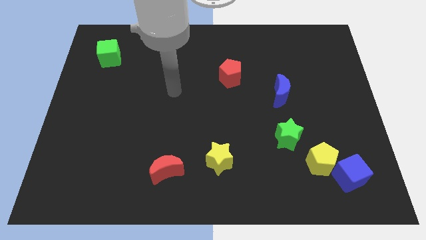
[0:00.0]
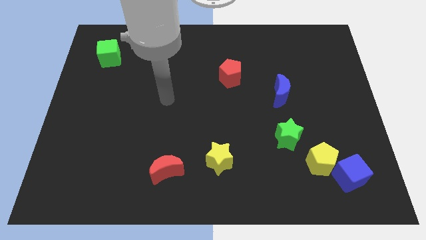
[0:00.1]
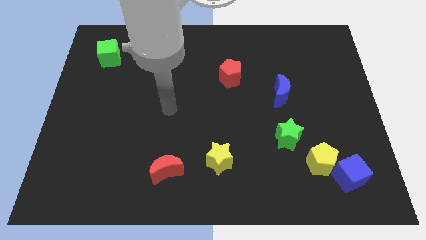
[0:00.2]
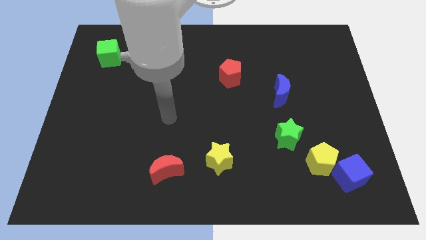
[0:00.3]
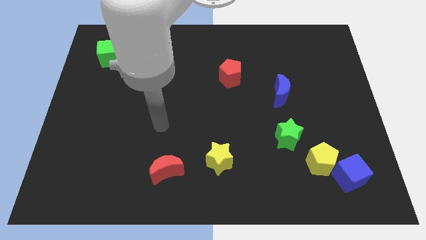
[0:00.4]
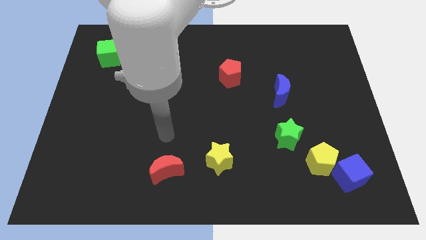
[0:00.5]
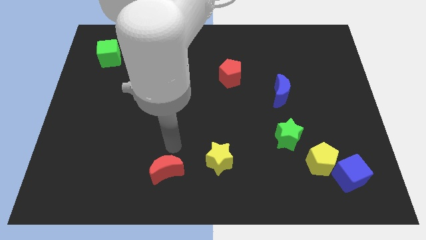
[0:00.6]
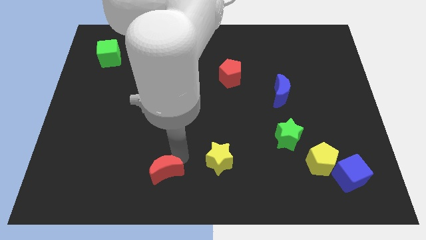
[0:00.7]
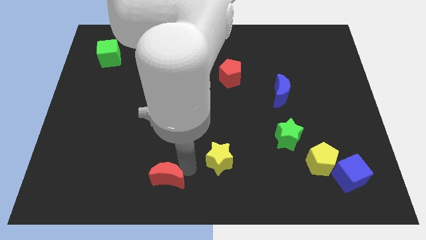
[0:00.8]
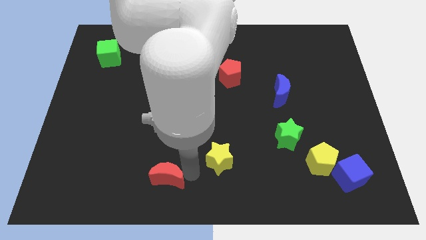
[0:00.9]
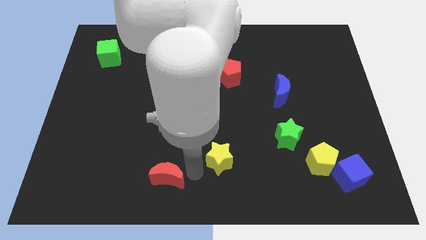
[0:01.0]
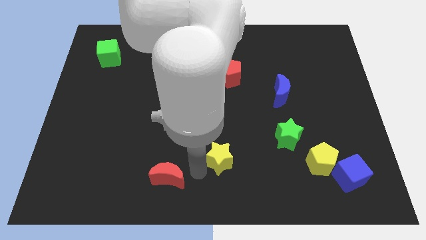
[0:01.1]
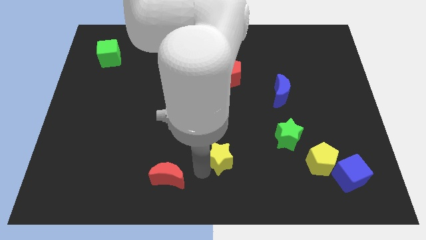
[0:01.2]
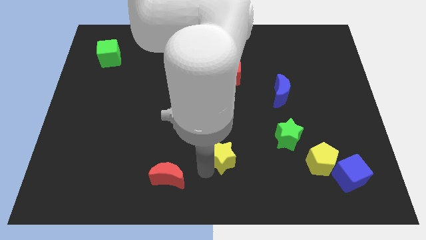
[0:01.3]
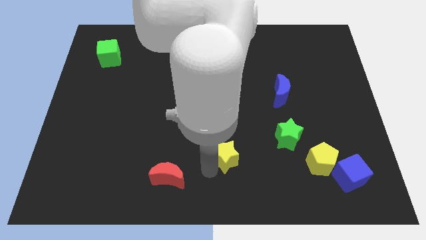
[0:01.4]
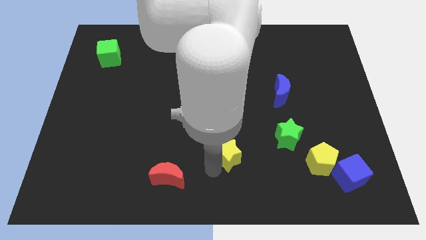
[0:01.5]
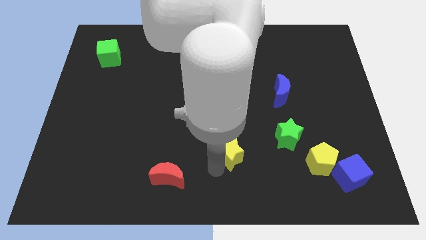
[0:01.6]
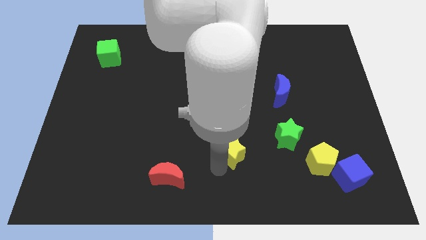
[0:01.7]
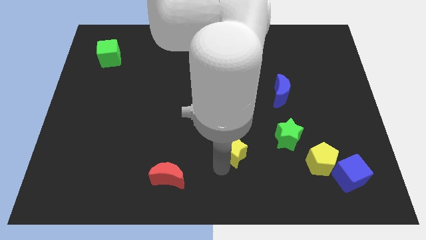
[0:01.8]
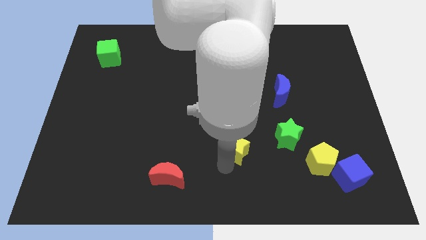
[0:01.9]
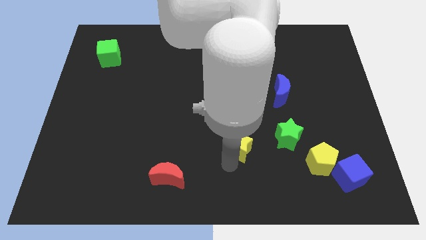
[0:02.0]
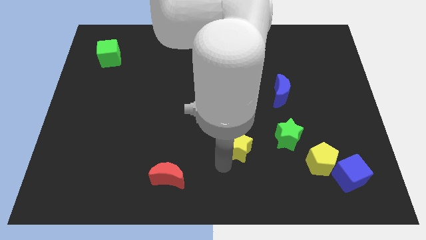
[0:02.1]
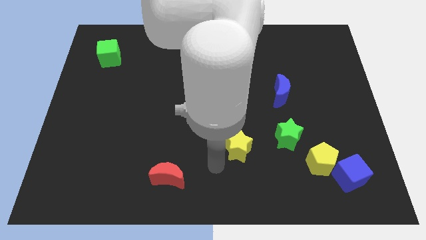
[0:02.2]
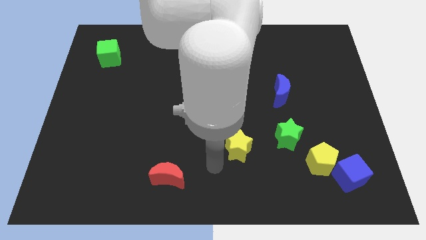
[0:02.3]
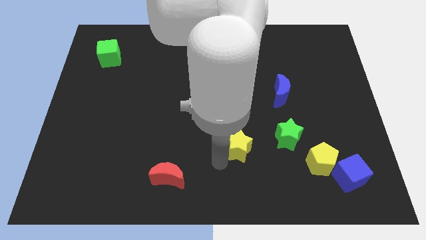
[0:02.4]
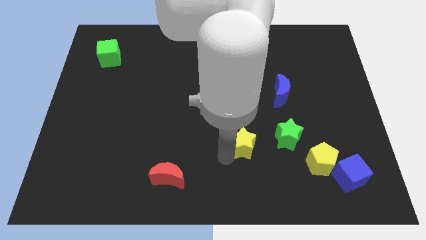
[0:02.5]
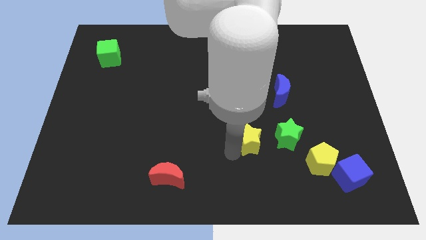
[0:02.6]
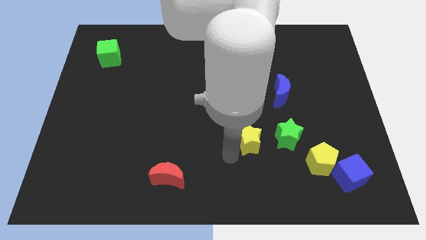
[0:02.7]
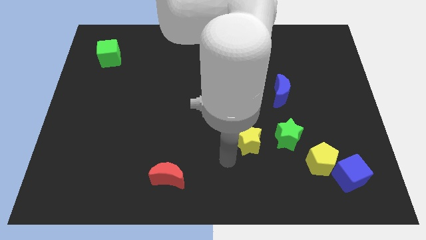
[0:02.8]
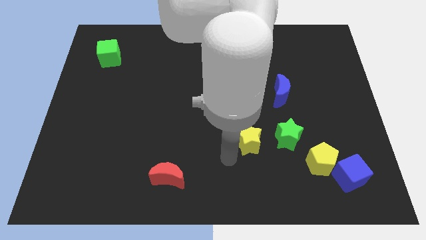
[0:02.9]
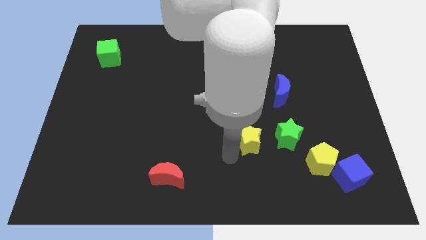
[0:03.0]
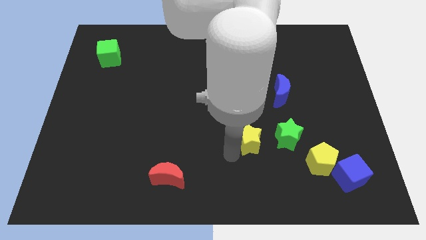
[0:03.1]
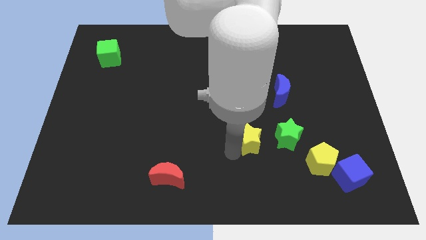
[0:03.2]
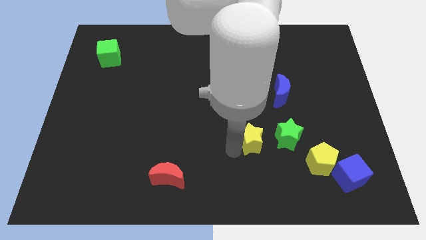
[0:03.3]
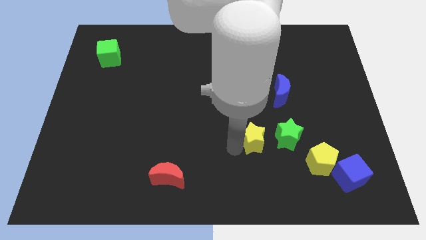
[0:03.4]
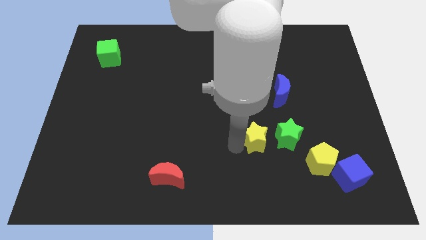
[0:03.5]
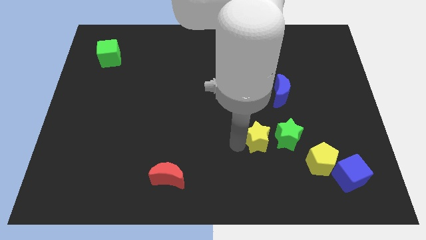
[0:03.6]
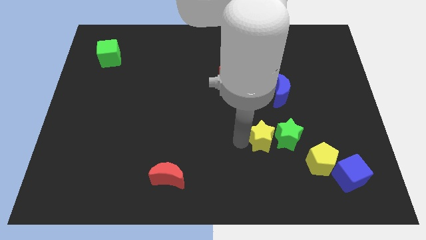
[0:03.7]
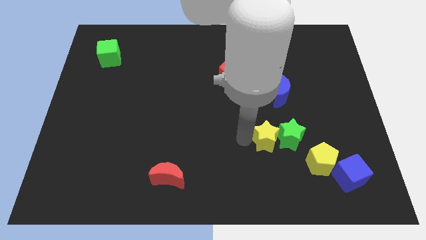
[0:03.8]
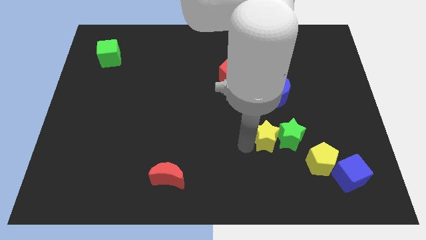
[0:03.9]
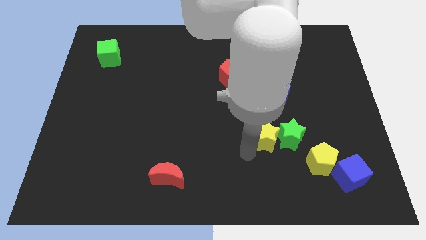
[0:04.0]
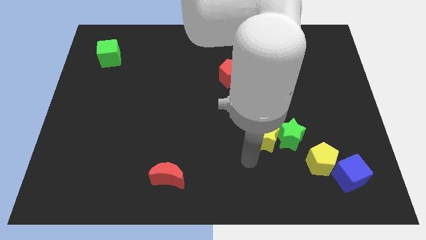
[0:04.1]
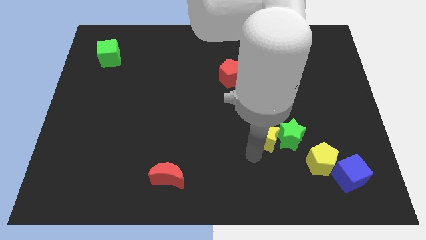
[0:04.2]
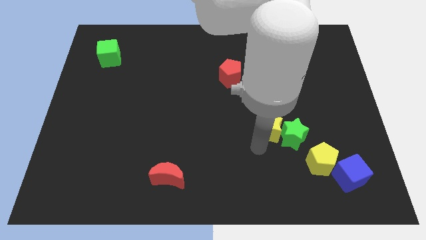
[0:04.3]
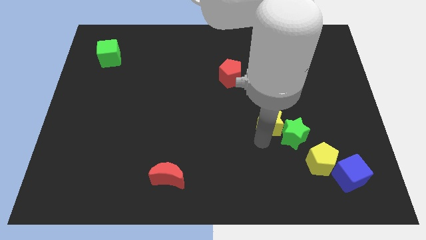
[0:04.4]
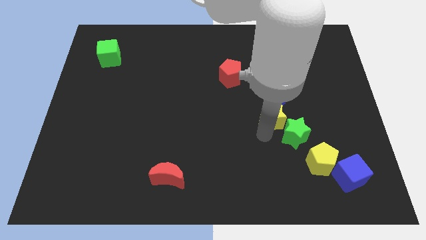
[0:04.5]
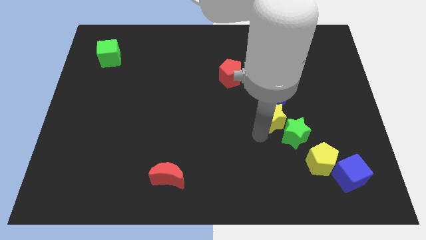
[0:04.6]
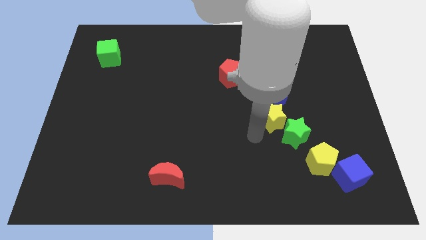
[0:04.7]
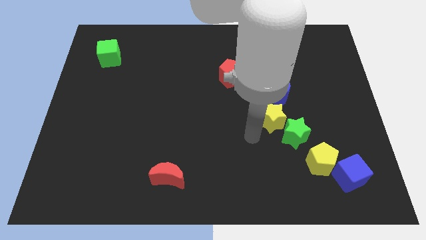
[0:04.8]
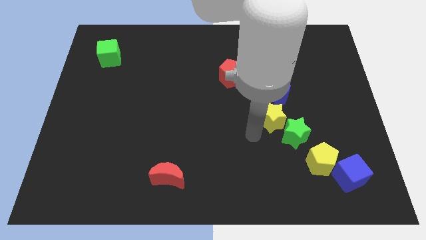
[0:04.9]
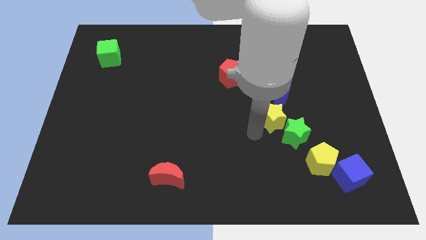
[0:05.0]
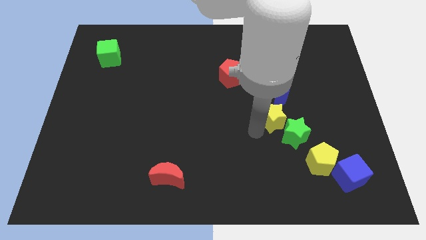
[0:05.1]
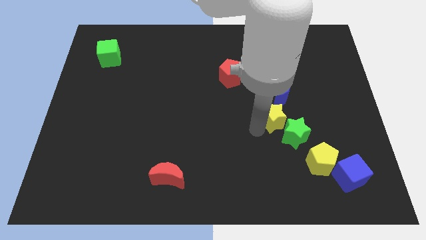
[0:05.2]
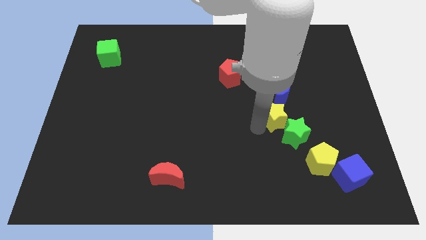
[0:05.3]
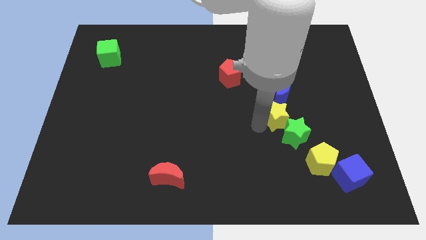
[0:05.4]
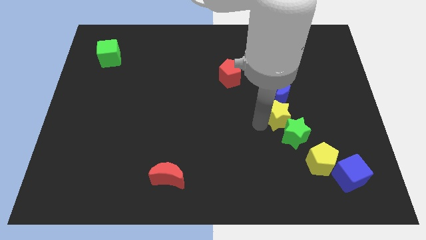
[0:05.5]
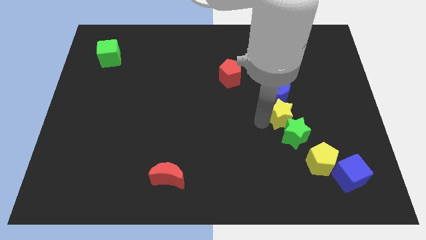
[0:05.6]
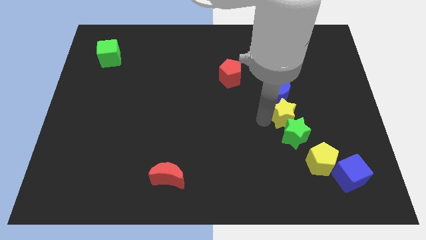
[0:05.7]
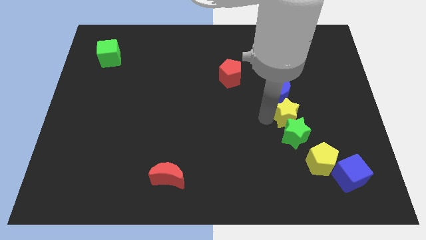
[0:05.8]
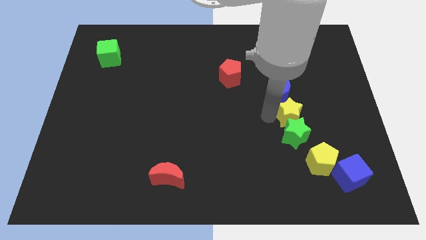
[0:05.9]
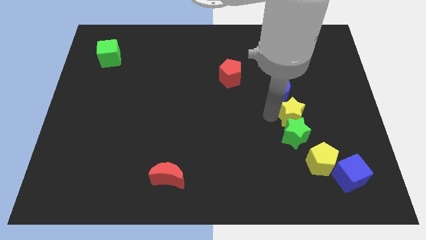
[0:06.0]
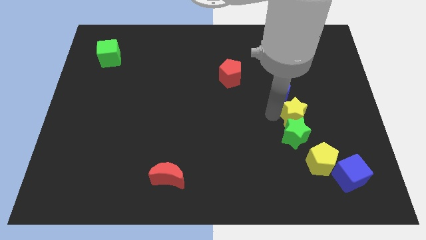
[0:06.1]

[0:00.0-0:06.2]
slide the yellow star up and right

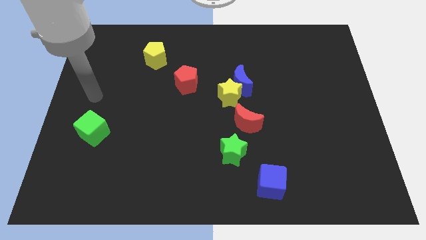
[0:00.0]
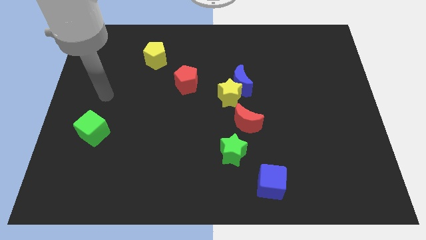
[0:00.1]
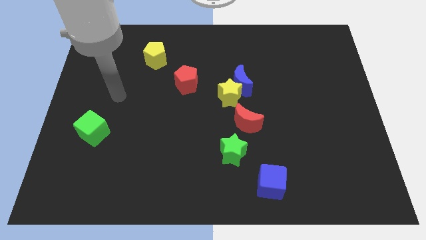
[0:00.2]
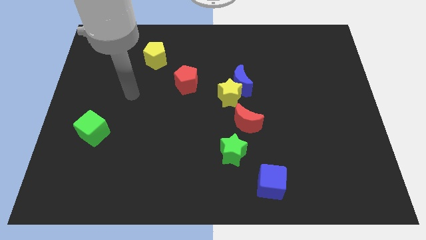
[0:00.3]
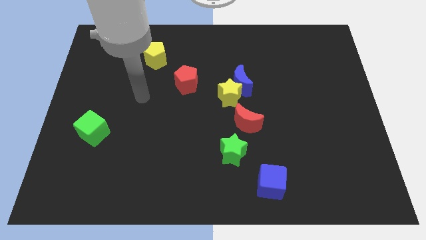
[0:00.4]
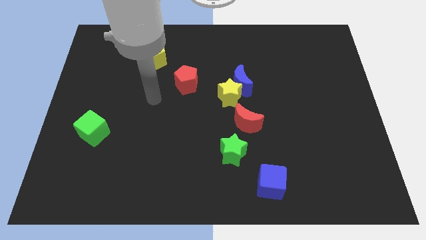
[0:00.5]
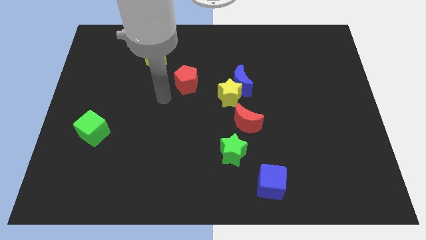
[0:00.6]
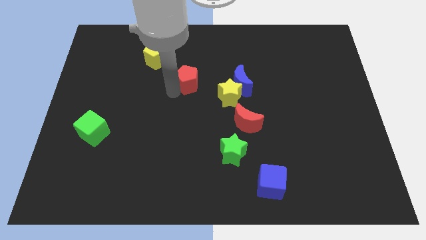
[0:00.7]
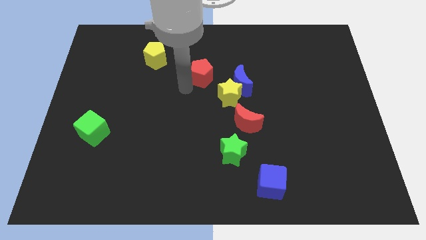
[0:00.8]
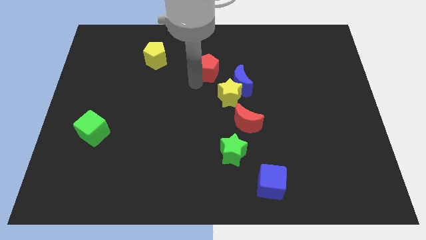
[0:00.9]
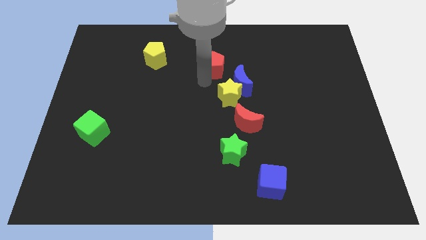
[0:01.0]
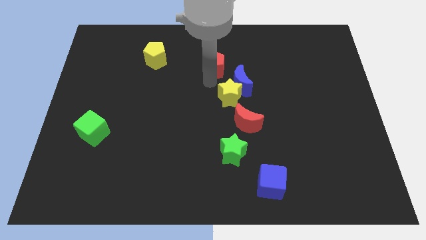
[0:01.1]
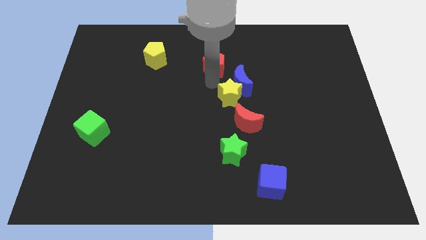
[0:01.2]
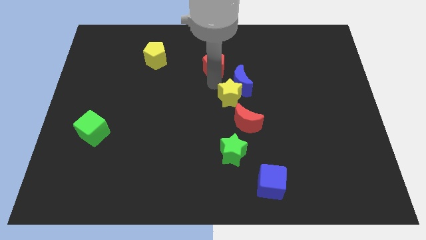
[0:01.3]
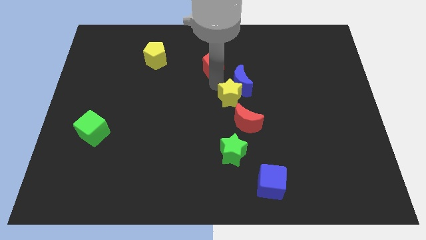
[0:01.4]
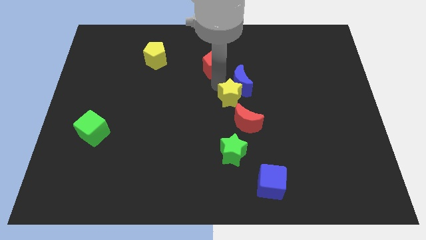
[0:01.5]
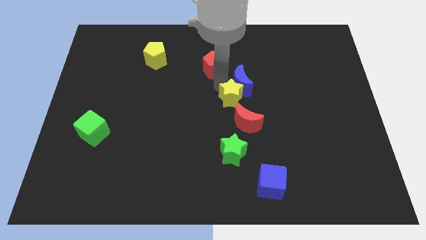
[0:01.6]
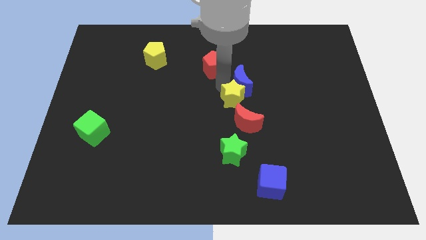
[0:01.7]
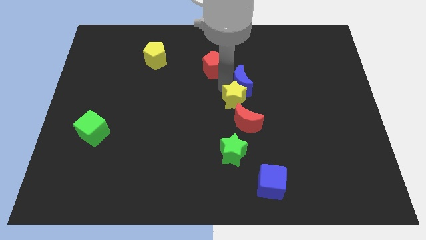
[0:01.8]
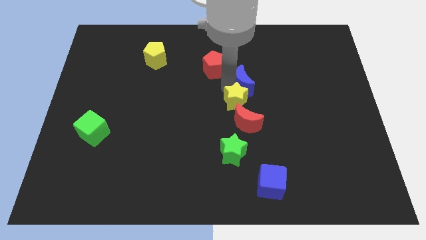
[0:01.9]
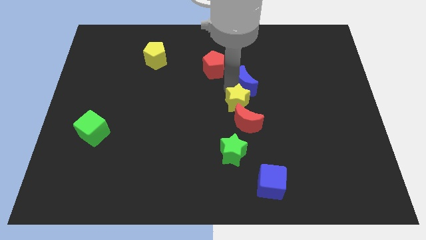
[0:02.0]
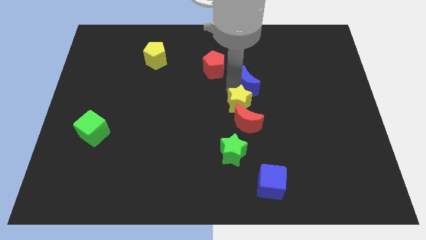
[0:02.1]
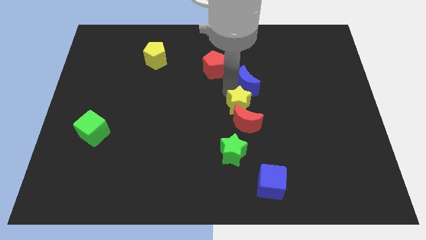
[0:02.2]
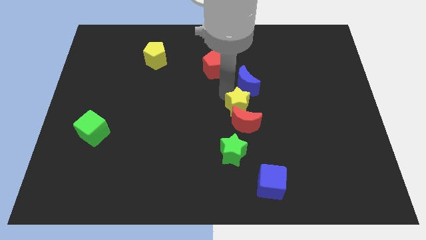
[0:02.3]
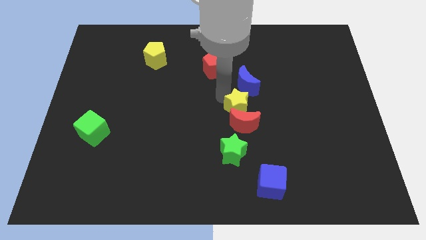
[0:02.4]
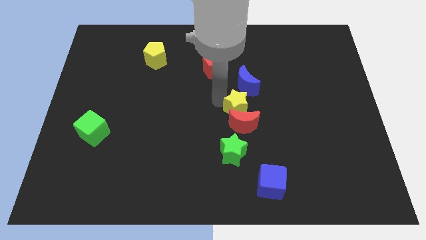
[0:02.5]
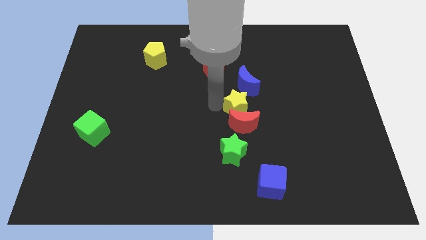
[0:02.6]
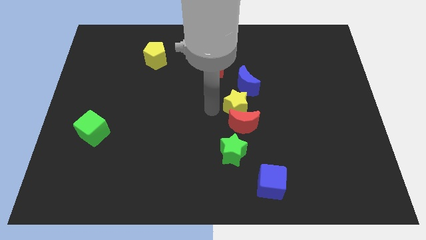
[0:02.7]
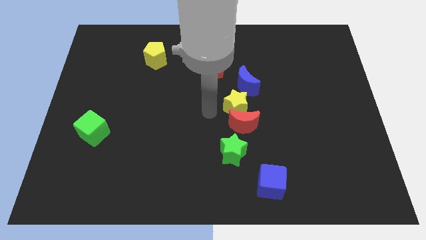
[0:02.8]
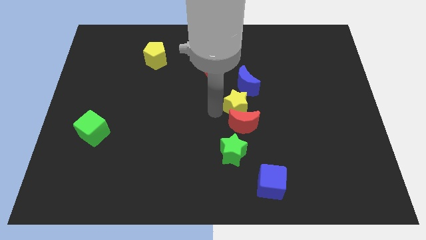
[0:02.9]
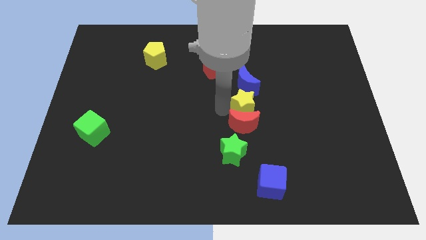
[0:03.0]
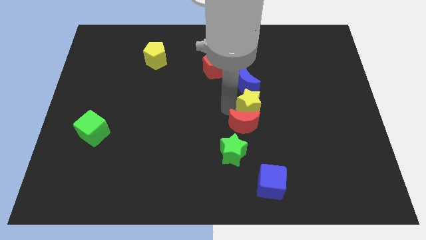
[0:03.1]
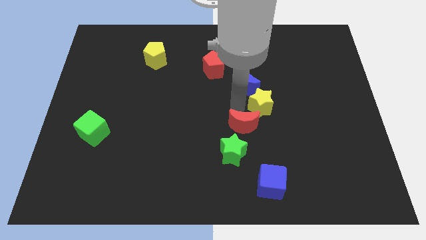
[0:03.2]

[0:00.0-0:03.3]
push the yellow star a little bit to the right
